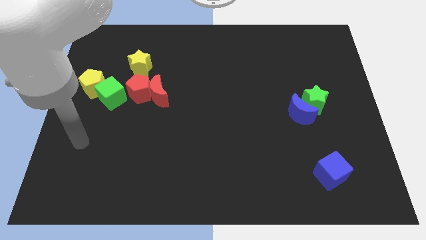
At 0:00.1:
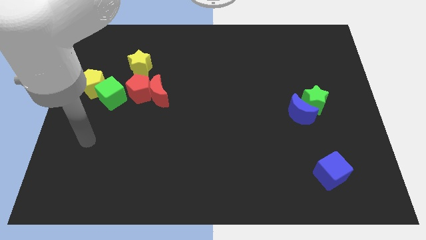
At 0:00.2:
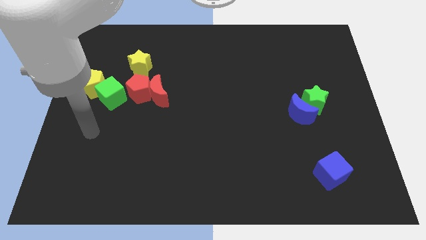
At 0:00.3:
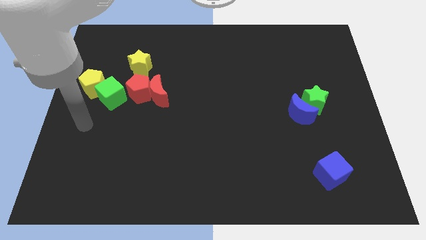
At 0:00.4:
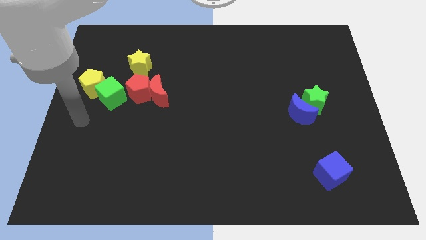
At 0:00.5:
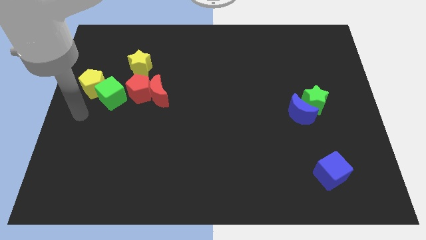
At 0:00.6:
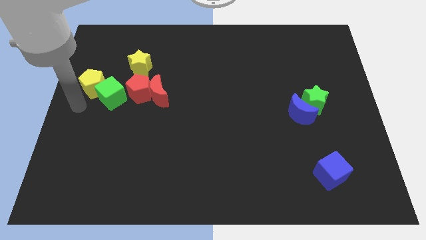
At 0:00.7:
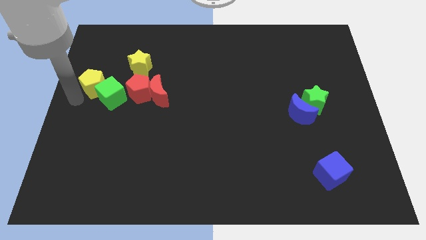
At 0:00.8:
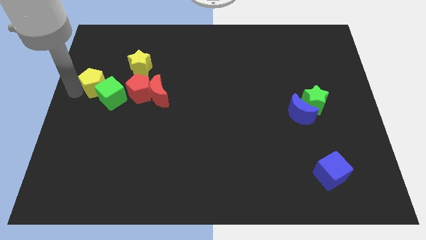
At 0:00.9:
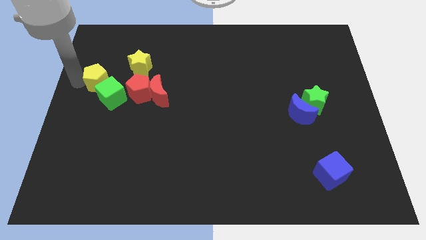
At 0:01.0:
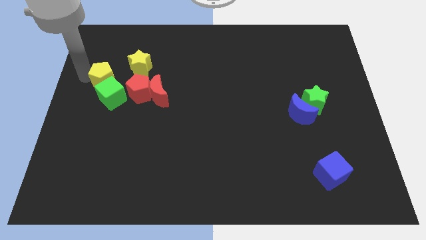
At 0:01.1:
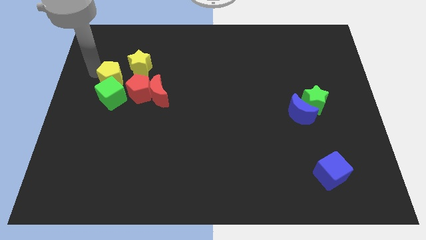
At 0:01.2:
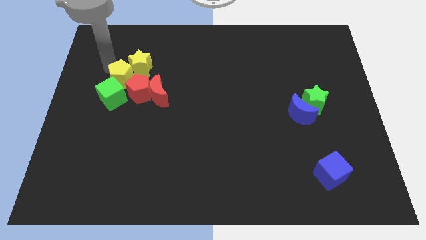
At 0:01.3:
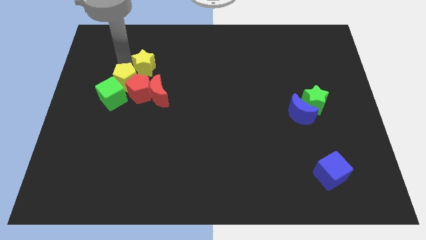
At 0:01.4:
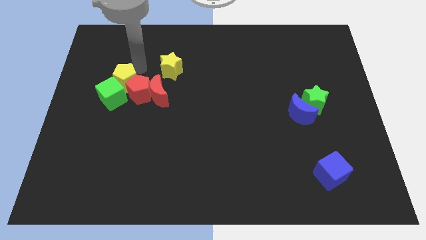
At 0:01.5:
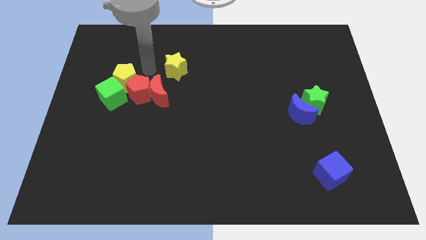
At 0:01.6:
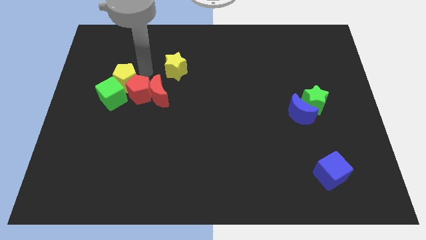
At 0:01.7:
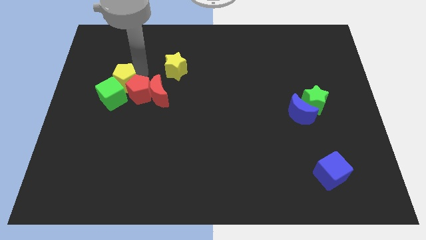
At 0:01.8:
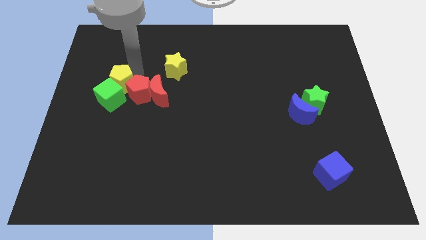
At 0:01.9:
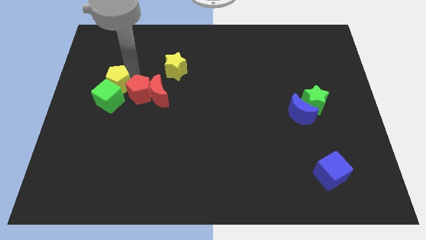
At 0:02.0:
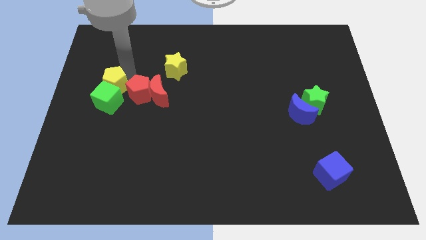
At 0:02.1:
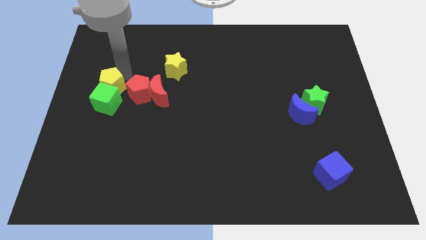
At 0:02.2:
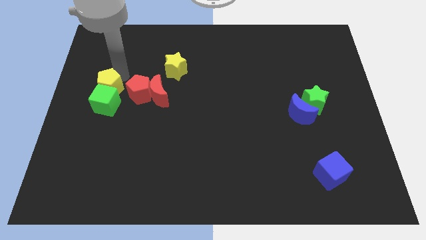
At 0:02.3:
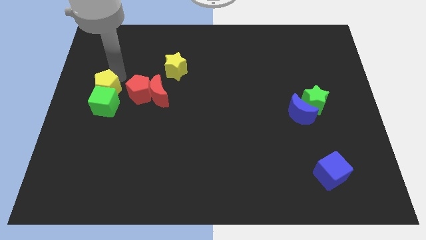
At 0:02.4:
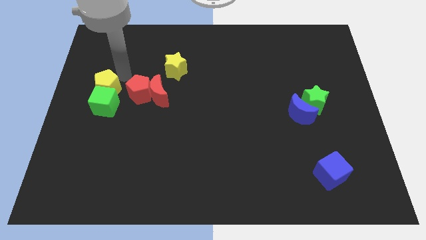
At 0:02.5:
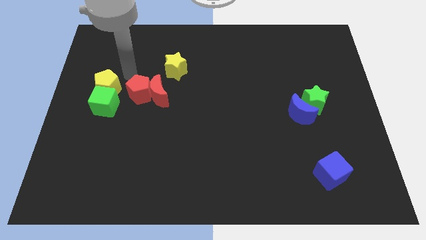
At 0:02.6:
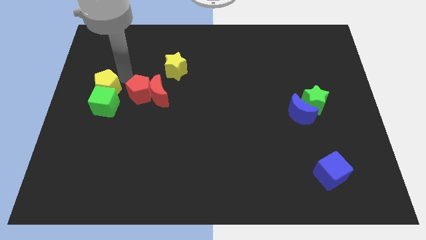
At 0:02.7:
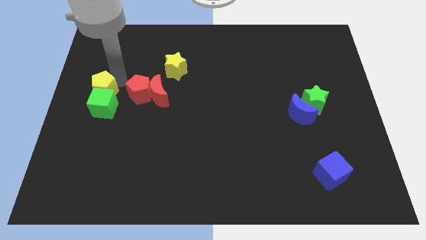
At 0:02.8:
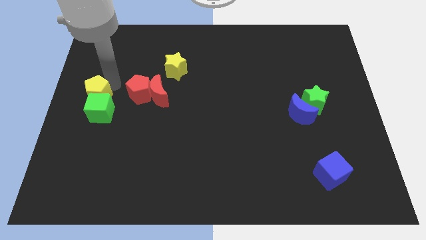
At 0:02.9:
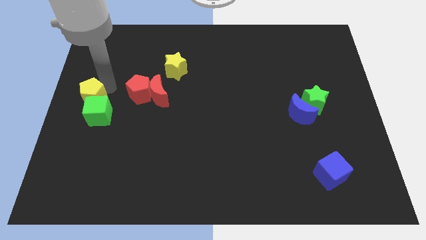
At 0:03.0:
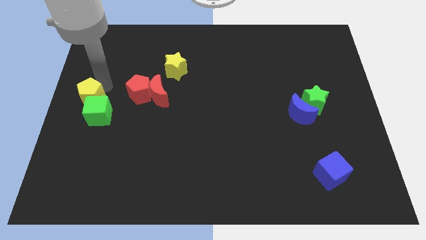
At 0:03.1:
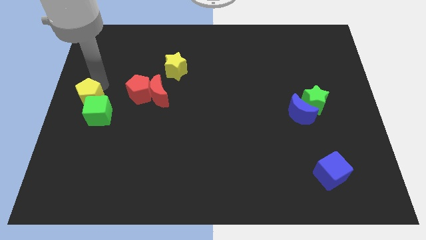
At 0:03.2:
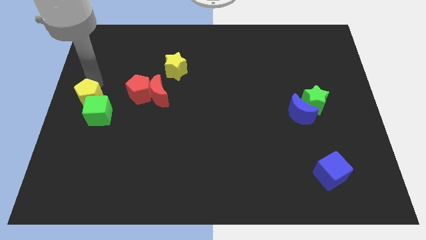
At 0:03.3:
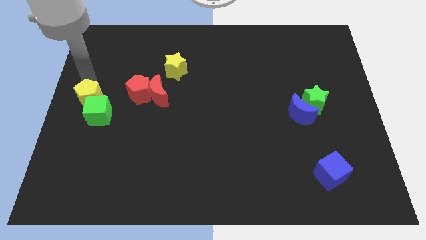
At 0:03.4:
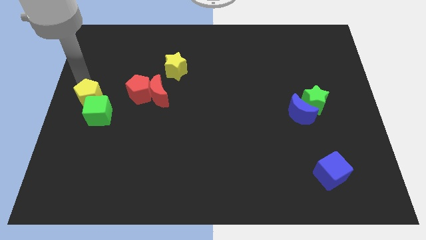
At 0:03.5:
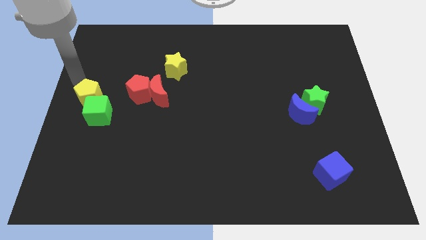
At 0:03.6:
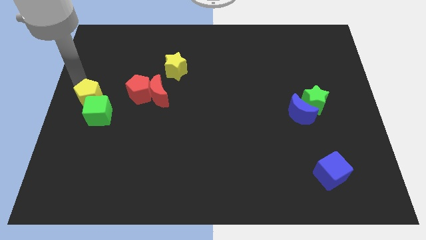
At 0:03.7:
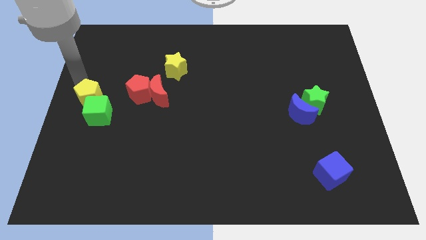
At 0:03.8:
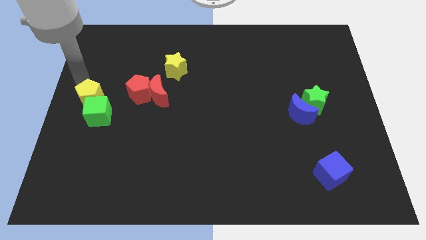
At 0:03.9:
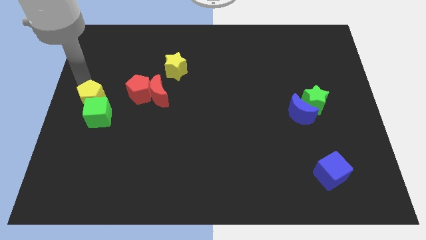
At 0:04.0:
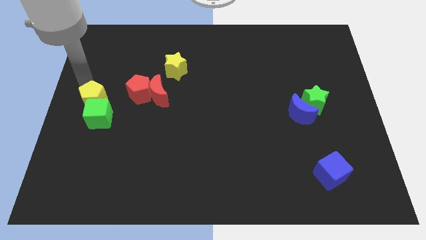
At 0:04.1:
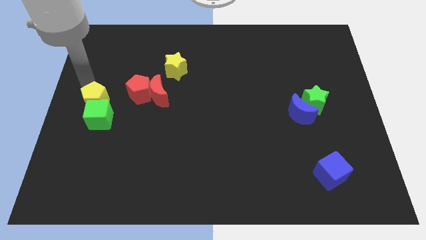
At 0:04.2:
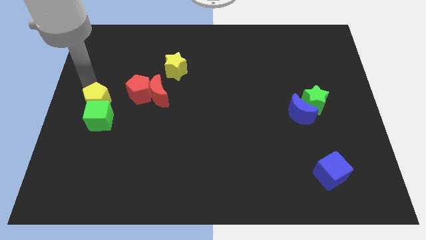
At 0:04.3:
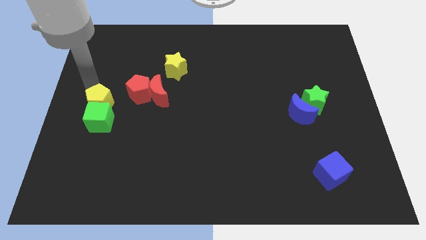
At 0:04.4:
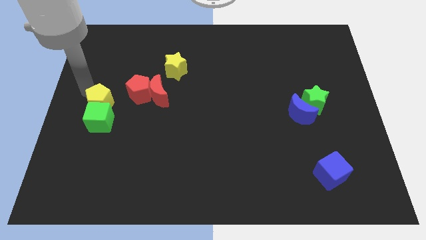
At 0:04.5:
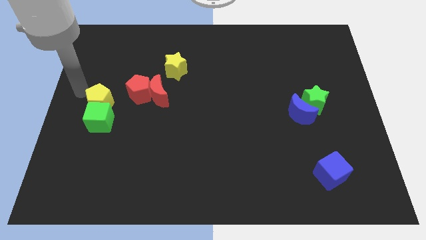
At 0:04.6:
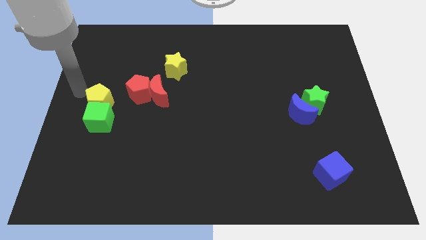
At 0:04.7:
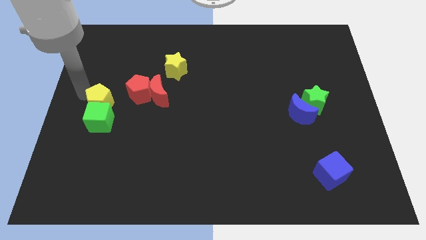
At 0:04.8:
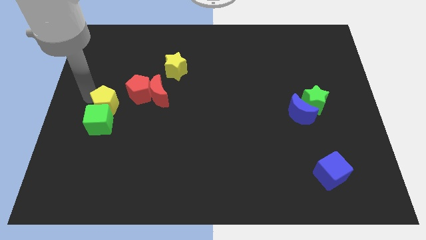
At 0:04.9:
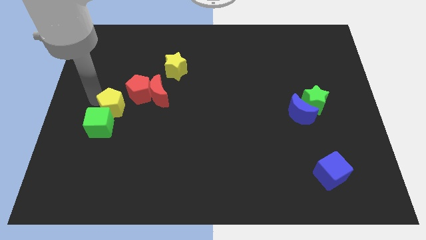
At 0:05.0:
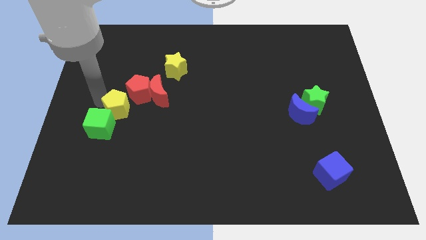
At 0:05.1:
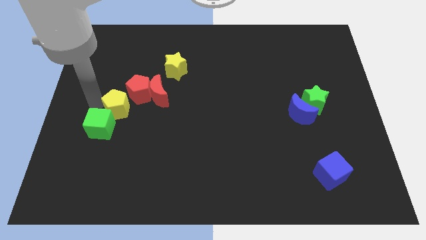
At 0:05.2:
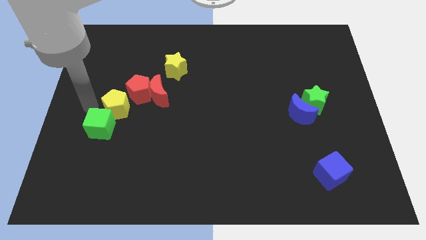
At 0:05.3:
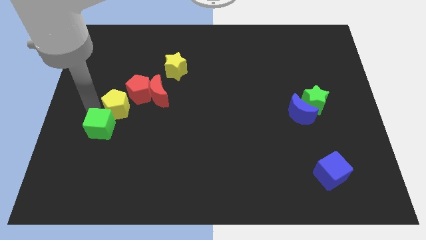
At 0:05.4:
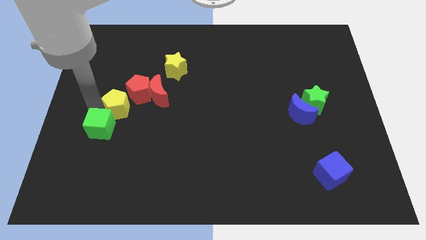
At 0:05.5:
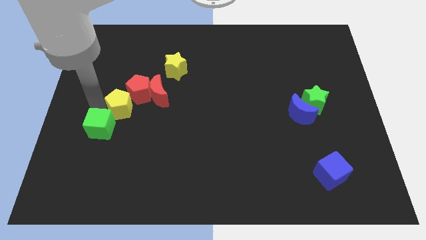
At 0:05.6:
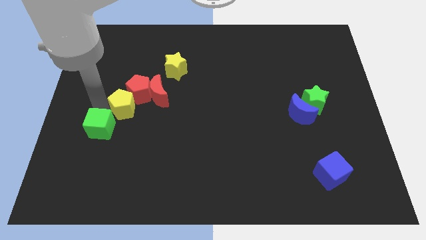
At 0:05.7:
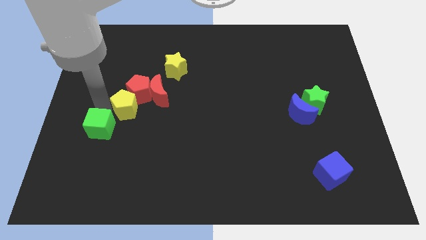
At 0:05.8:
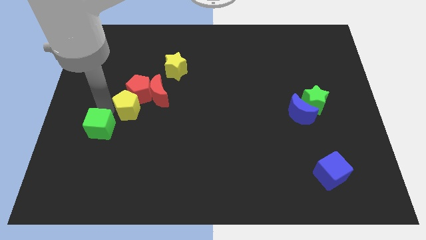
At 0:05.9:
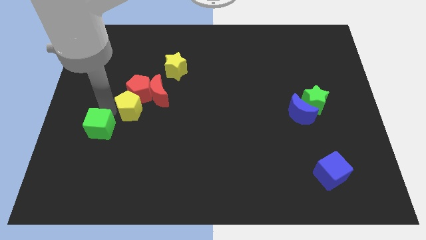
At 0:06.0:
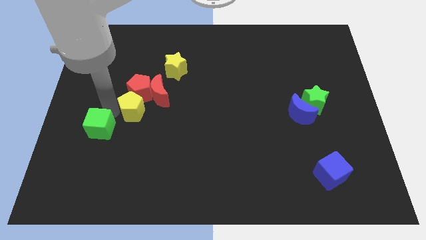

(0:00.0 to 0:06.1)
move the yellow pentagon diagonally down and to the right of the red pentagon

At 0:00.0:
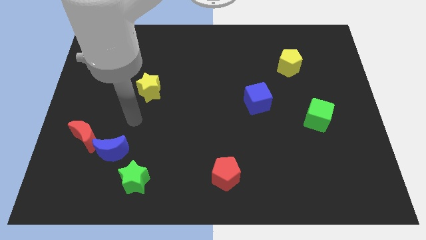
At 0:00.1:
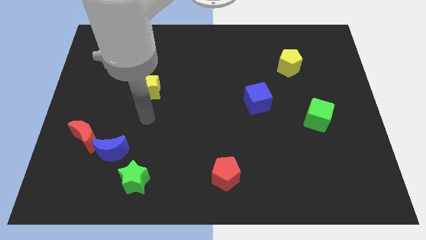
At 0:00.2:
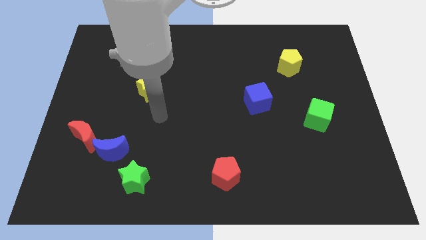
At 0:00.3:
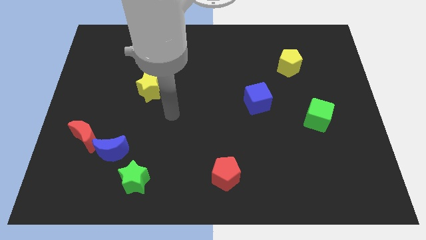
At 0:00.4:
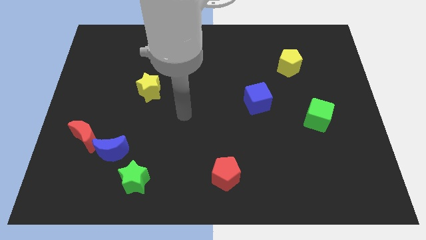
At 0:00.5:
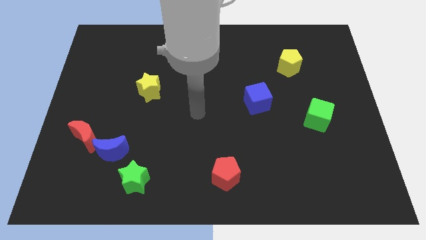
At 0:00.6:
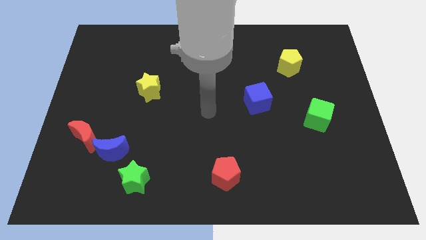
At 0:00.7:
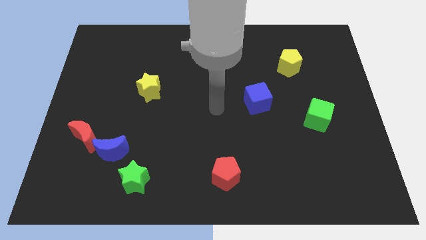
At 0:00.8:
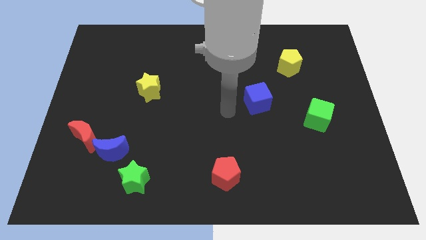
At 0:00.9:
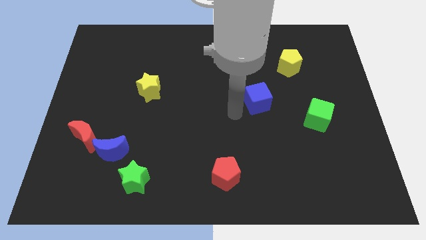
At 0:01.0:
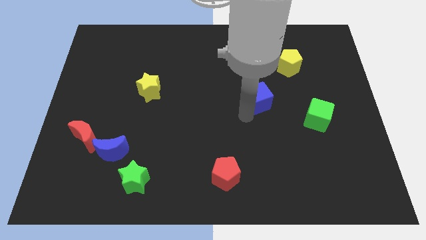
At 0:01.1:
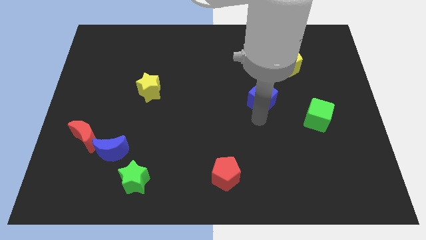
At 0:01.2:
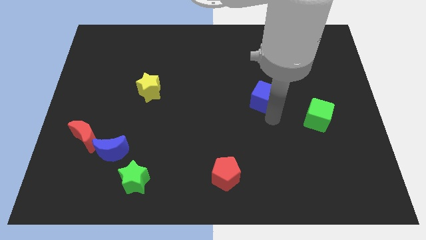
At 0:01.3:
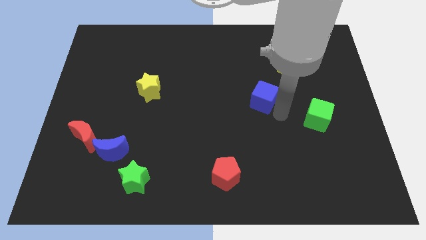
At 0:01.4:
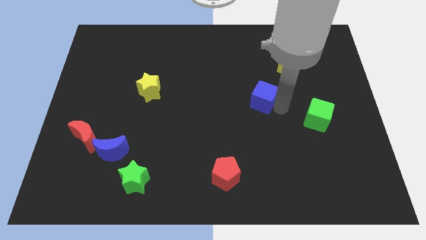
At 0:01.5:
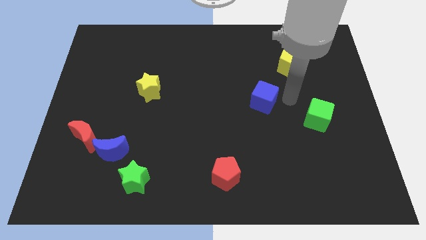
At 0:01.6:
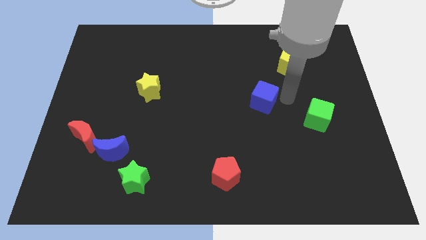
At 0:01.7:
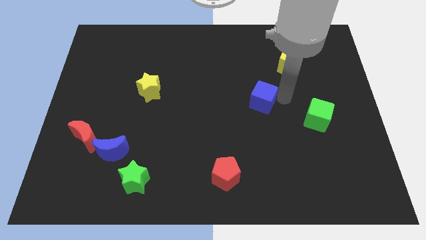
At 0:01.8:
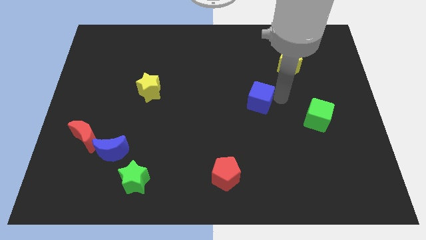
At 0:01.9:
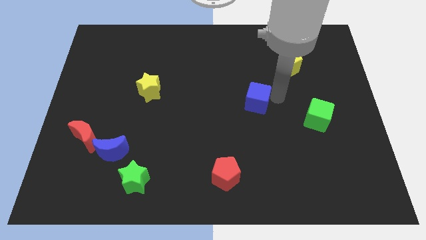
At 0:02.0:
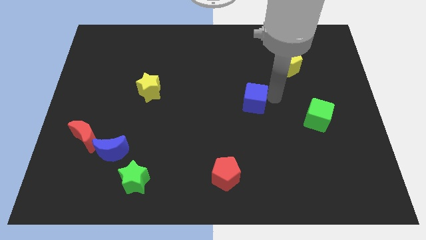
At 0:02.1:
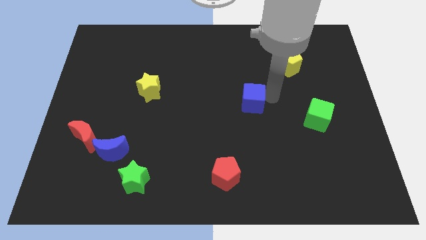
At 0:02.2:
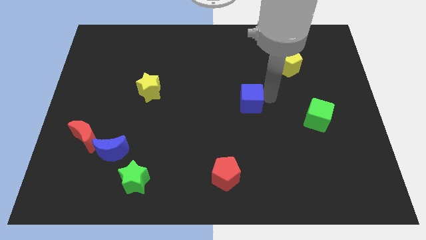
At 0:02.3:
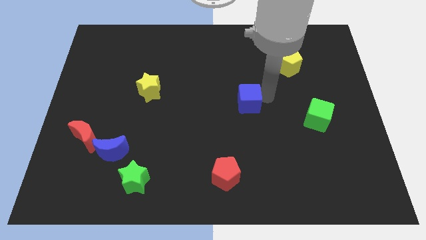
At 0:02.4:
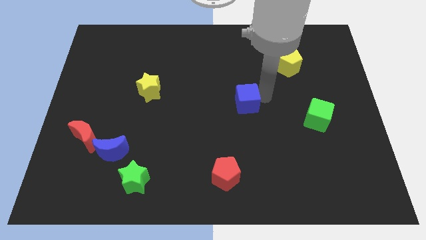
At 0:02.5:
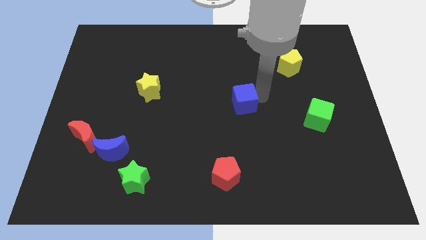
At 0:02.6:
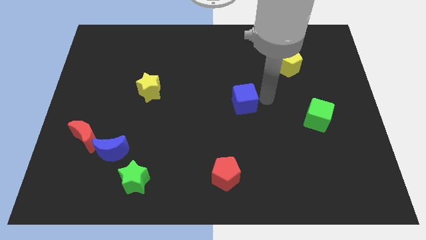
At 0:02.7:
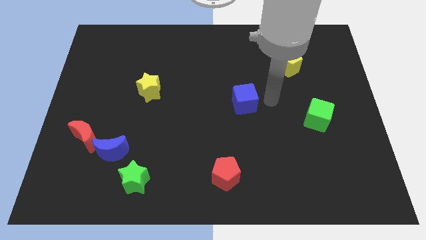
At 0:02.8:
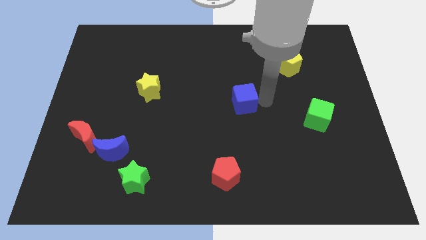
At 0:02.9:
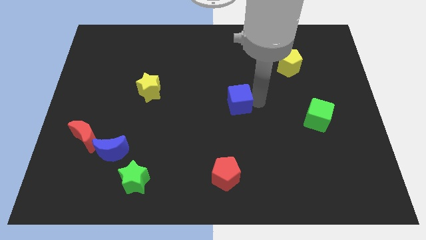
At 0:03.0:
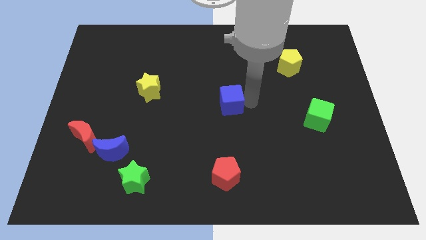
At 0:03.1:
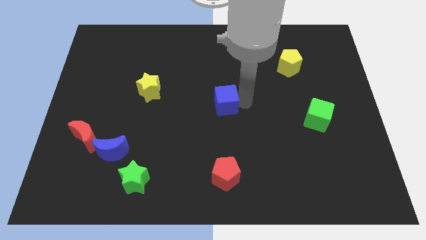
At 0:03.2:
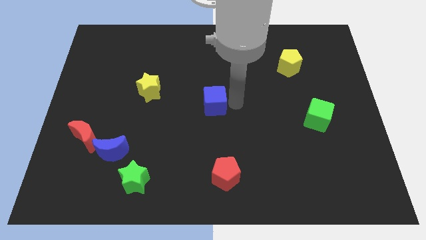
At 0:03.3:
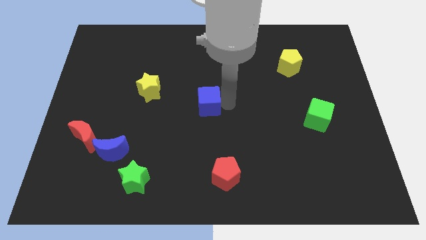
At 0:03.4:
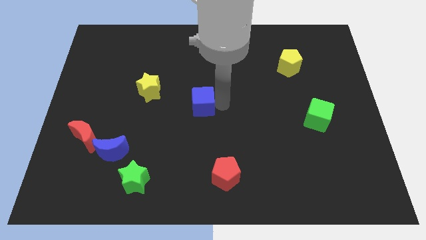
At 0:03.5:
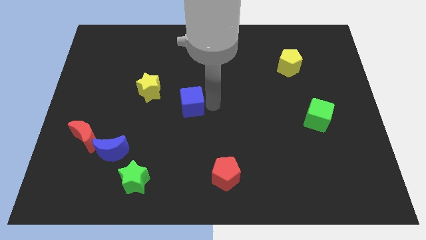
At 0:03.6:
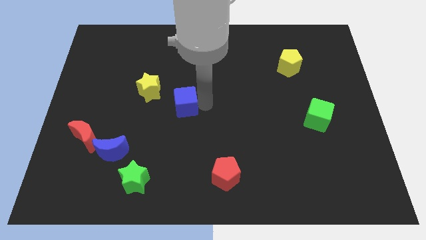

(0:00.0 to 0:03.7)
put the blue cube to the bottom right side of the yellow star
